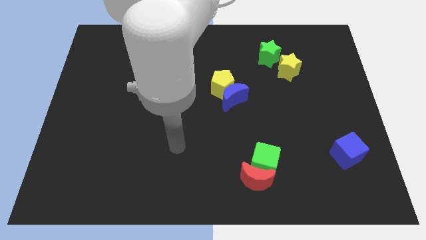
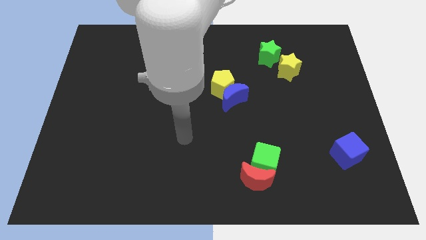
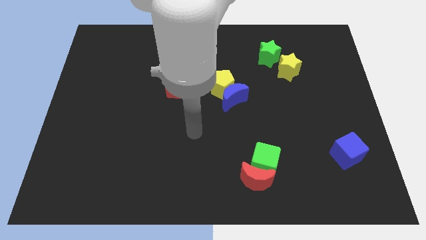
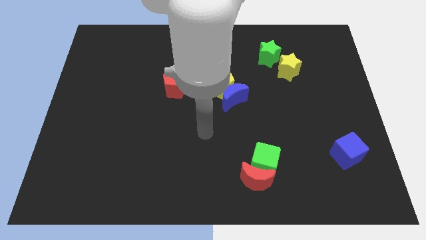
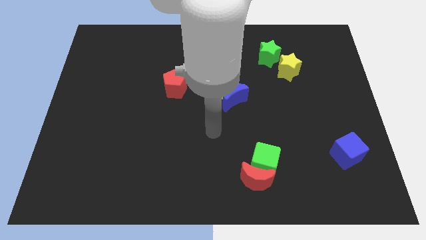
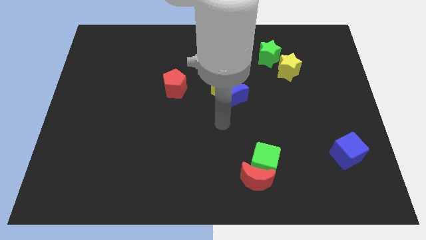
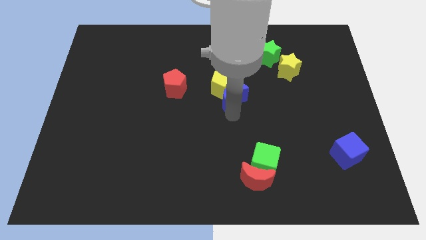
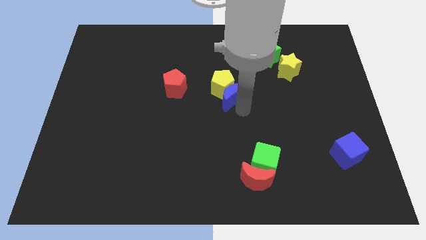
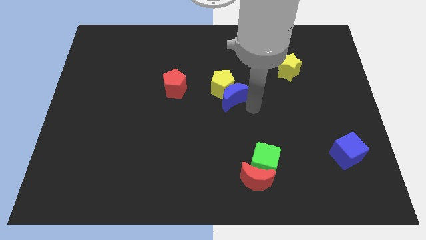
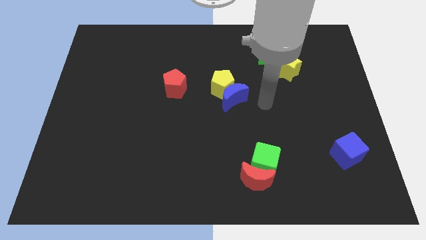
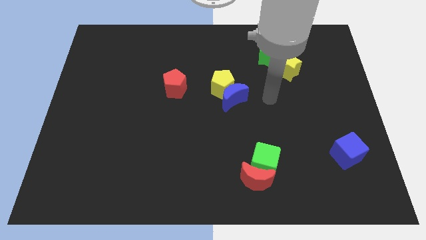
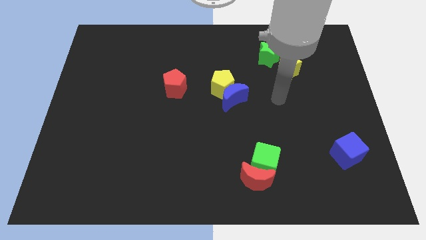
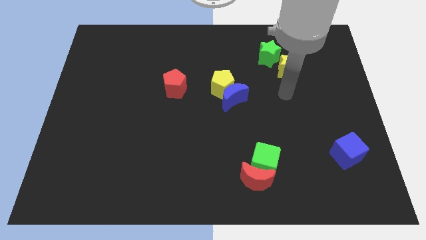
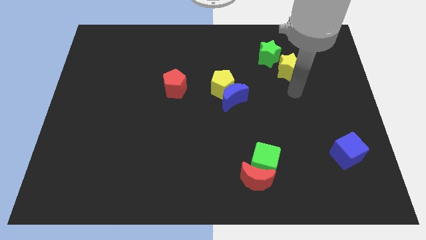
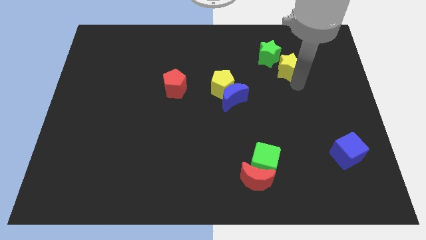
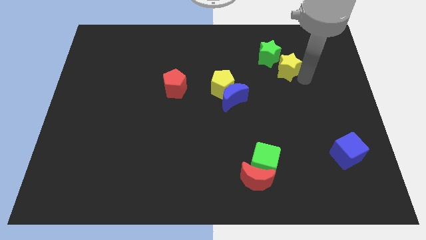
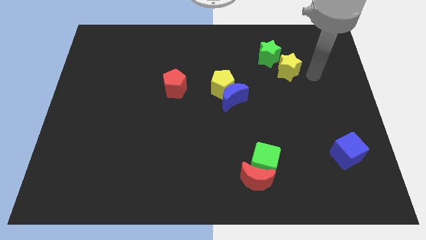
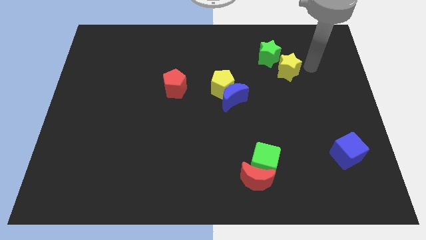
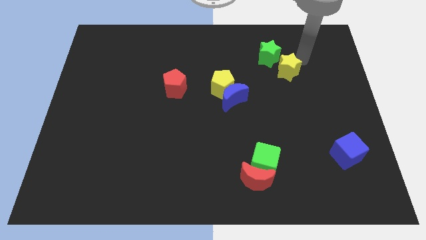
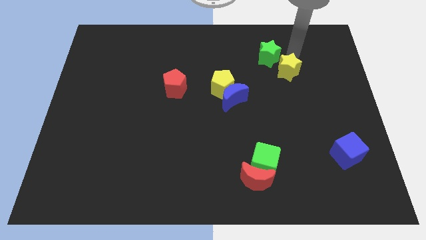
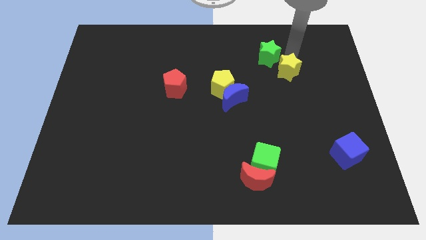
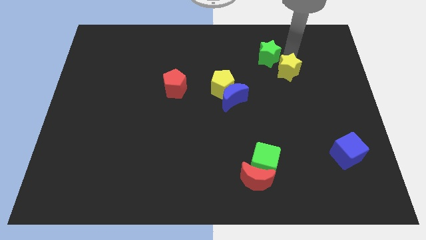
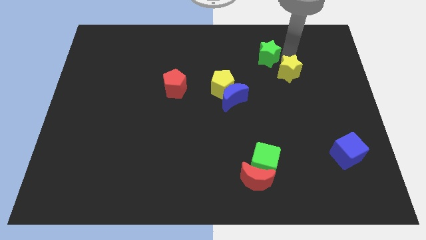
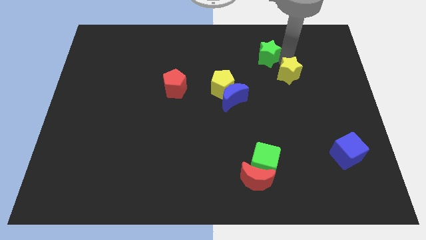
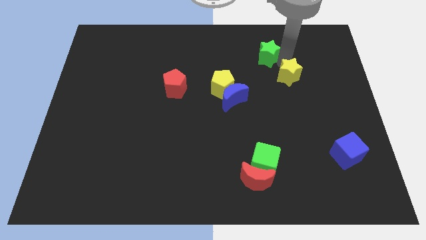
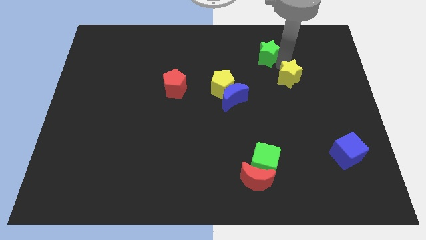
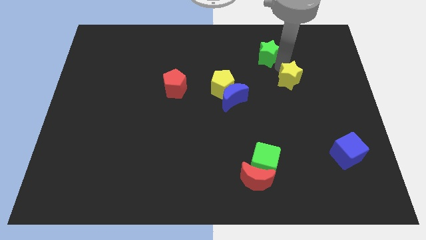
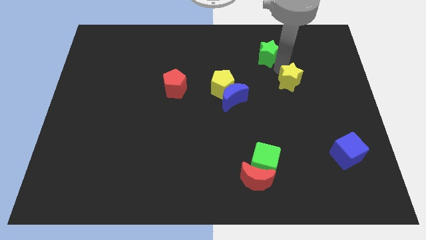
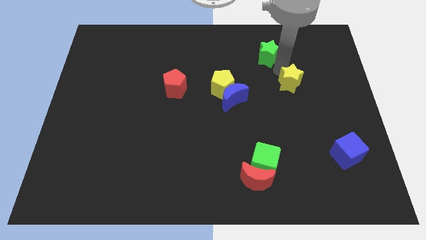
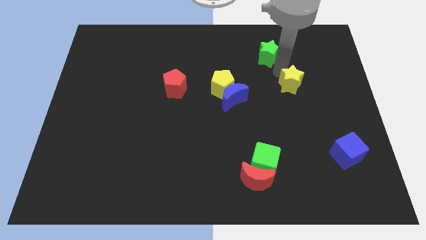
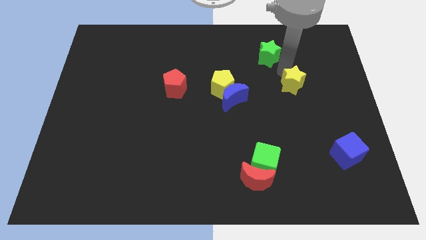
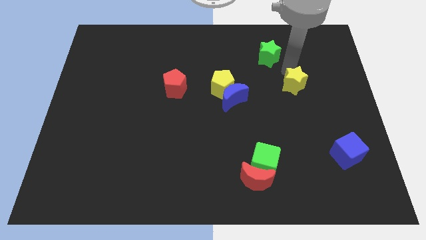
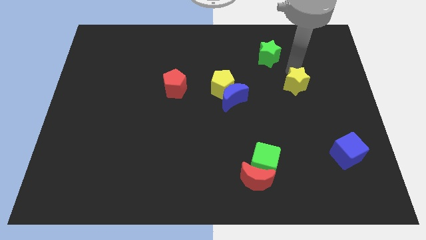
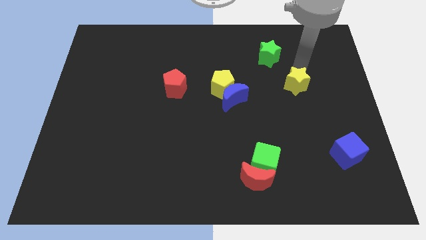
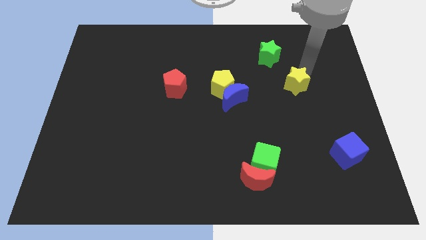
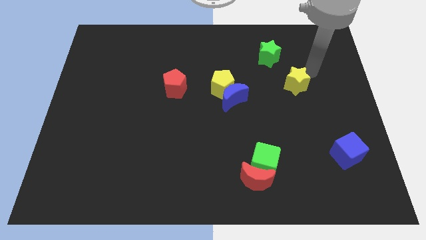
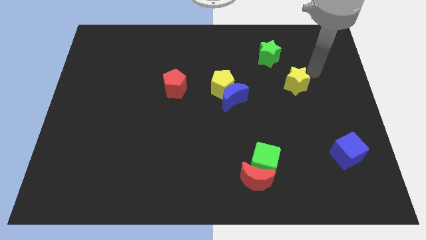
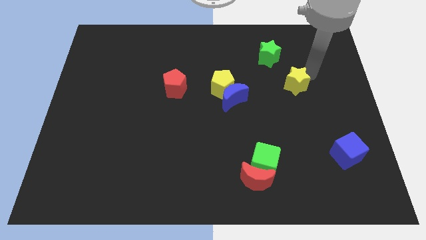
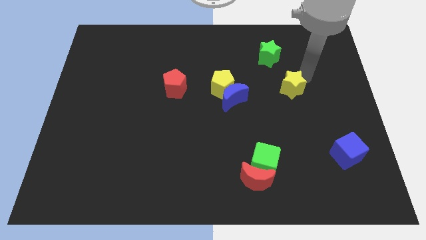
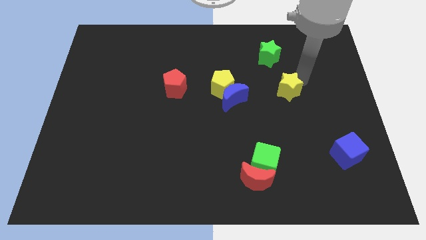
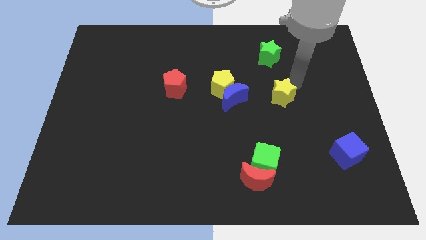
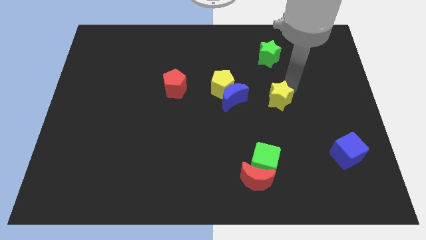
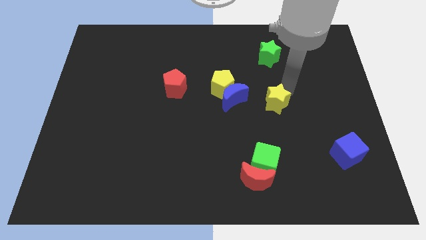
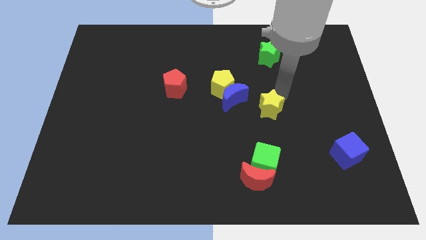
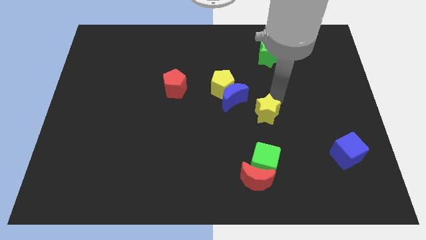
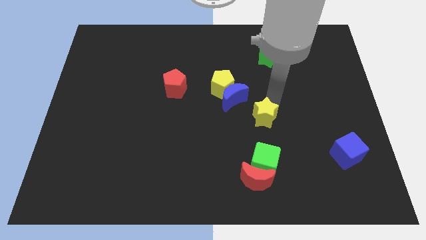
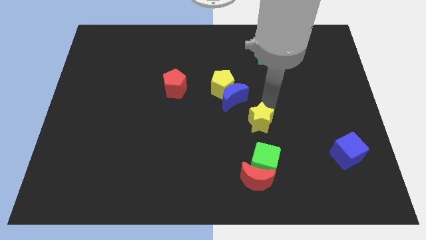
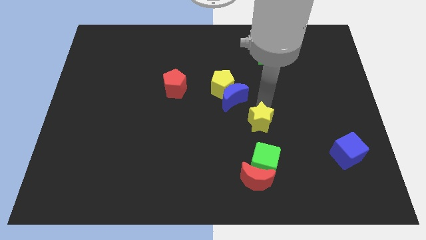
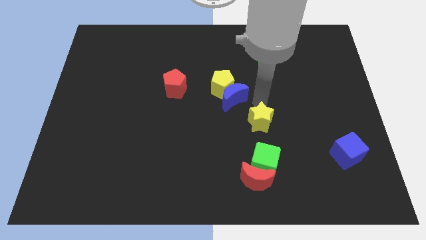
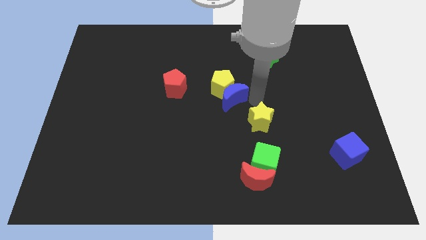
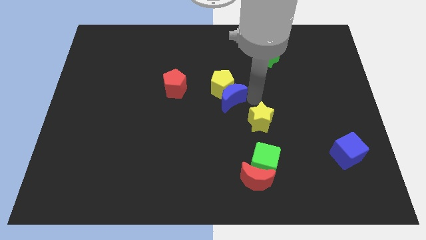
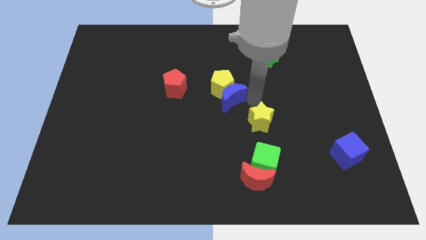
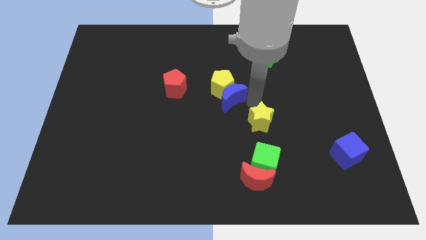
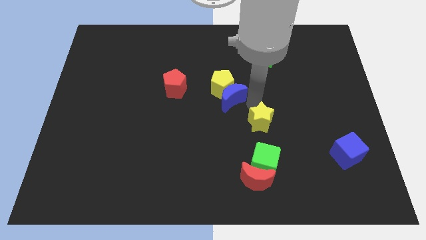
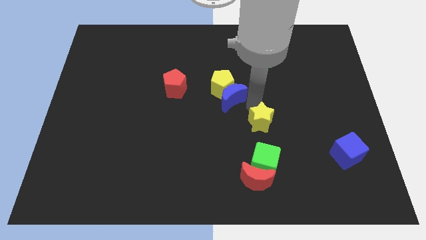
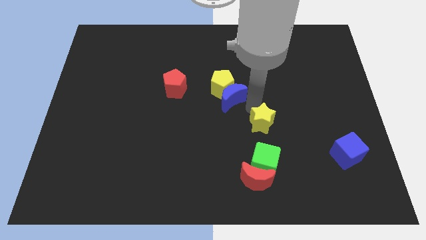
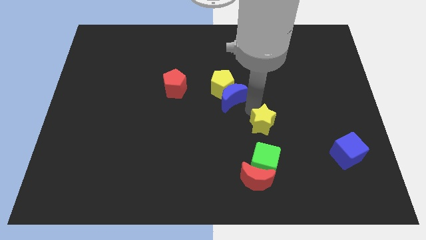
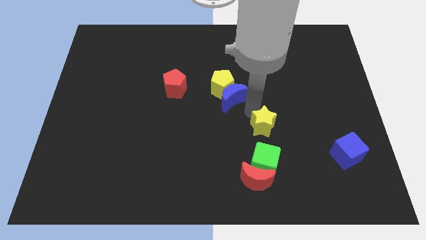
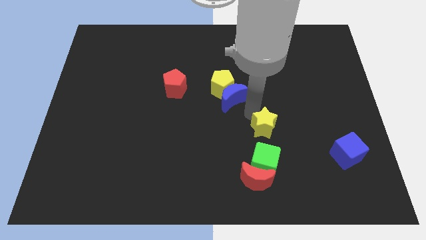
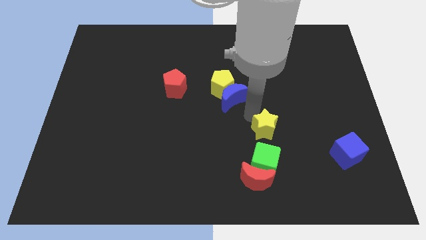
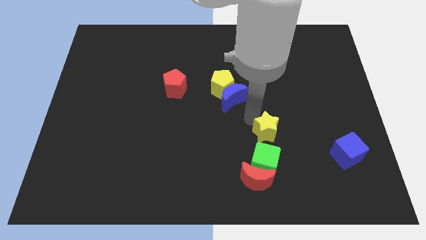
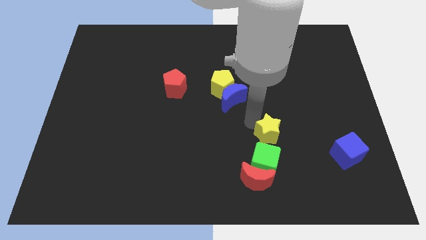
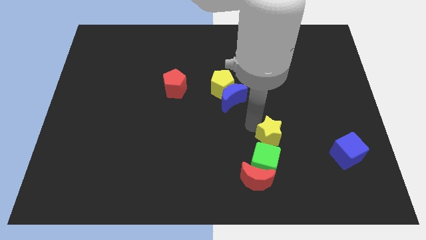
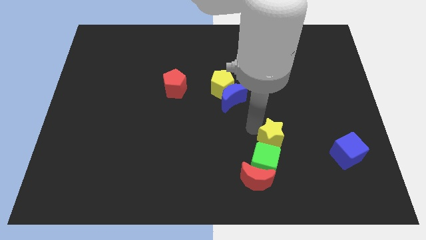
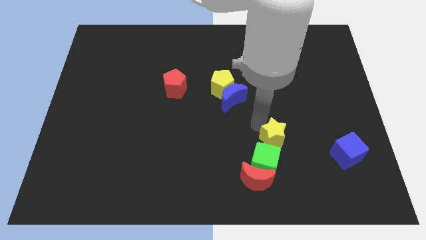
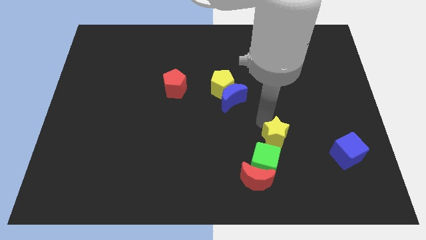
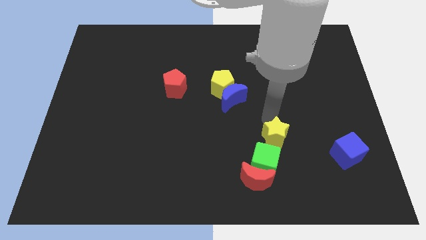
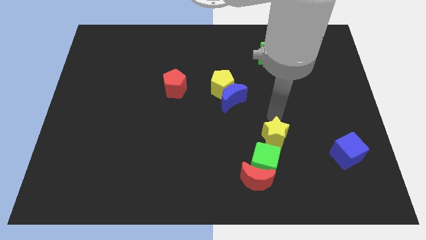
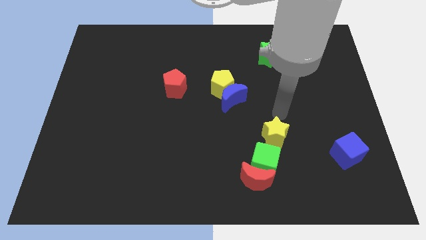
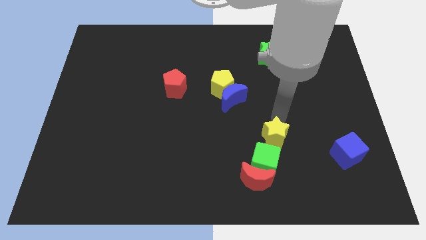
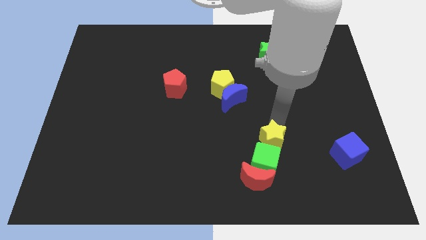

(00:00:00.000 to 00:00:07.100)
move the yellow star to the green cube

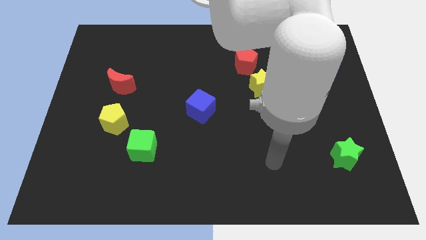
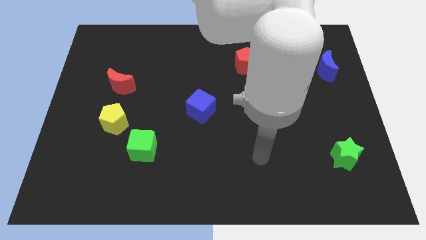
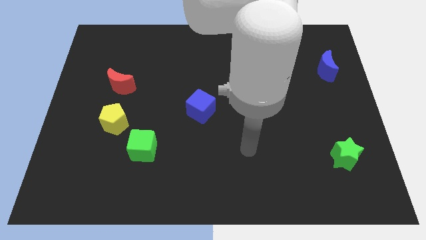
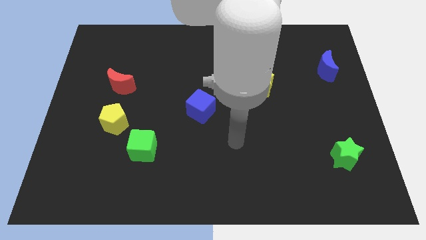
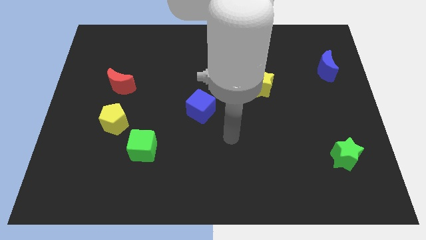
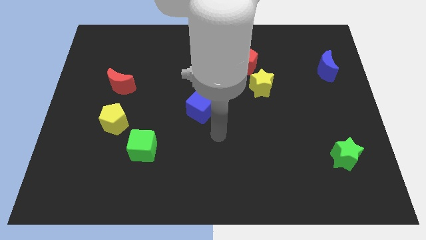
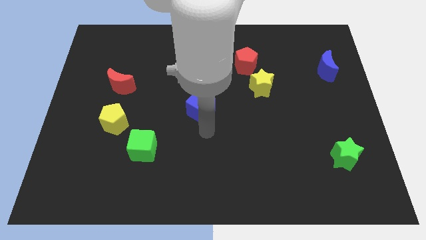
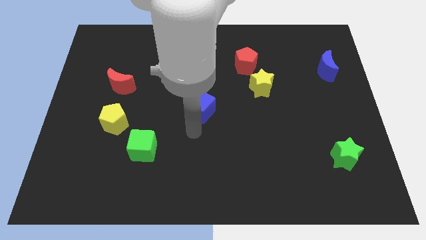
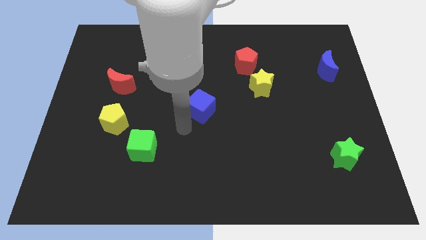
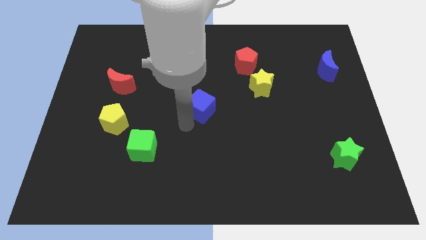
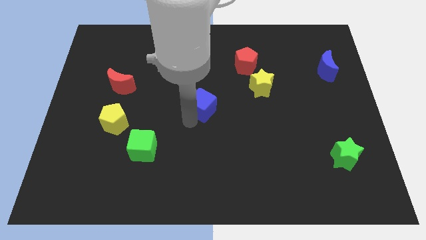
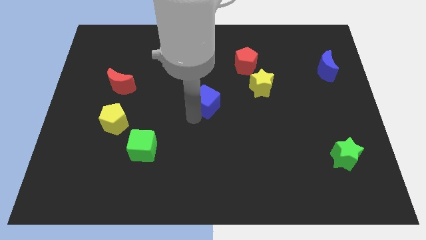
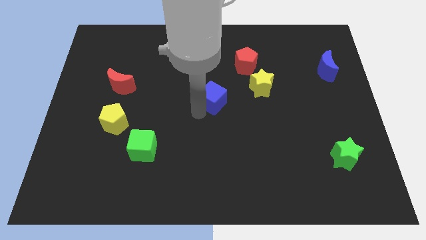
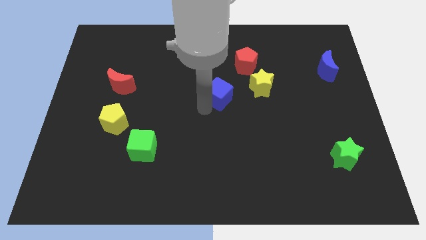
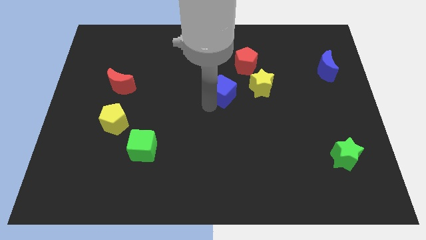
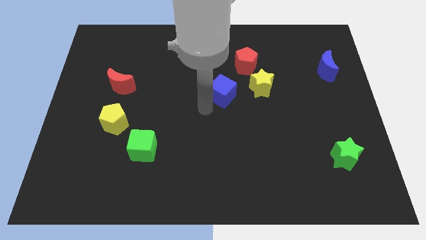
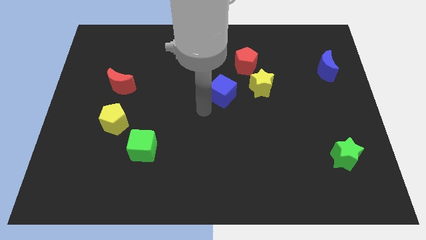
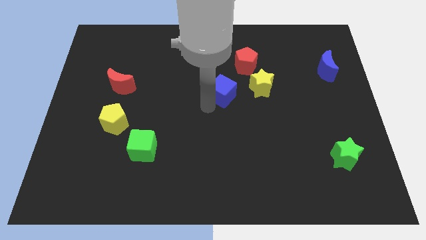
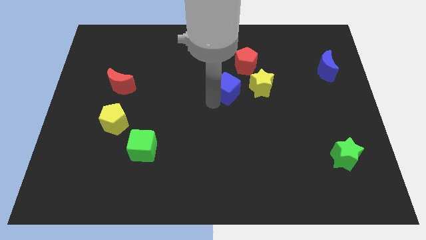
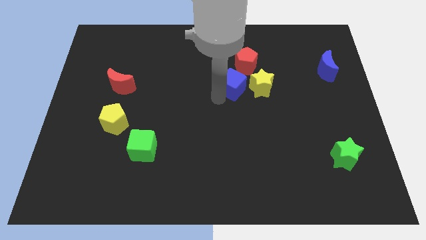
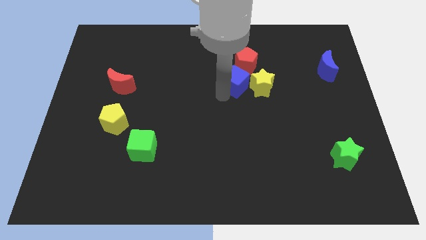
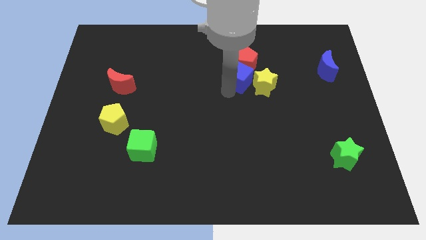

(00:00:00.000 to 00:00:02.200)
move the blue cube to the red pentagon
